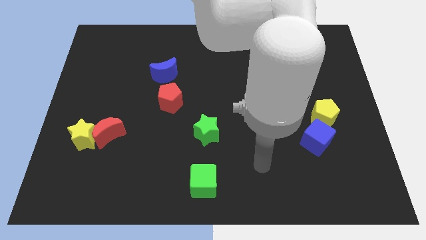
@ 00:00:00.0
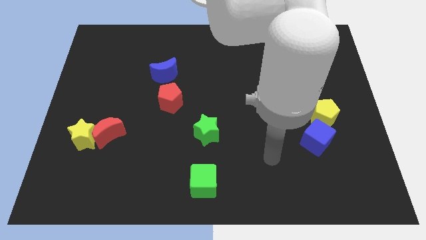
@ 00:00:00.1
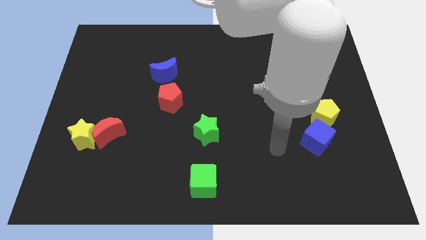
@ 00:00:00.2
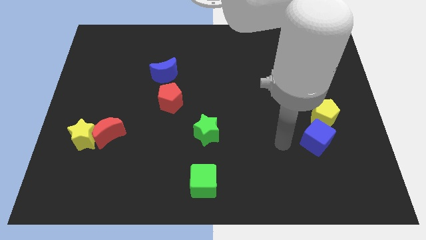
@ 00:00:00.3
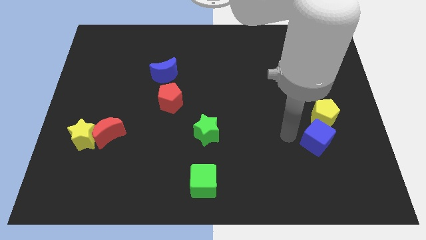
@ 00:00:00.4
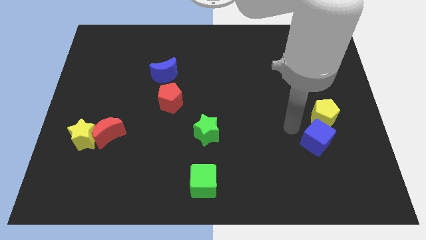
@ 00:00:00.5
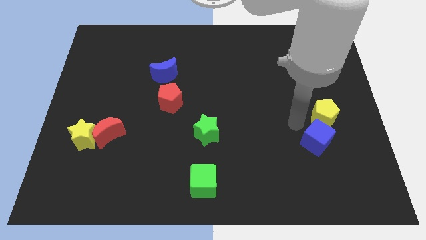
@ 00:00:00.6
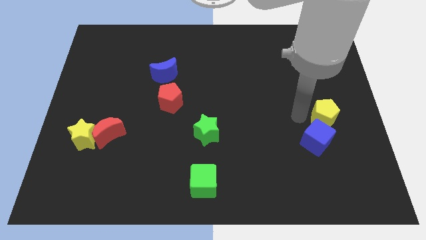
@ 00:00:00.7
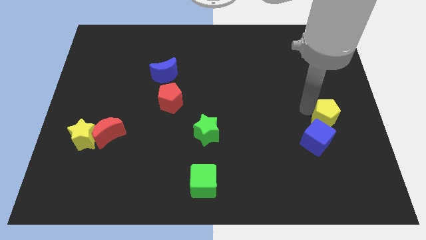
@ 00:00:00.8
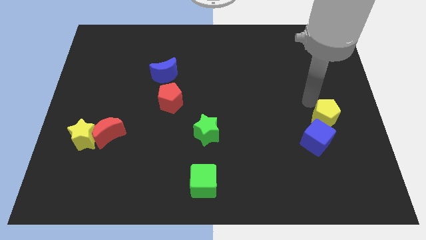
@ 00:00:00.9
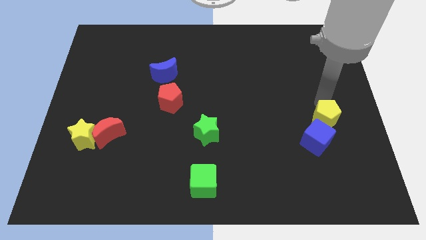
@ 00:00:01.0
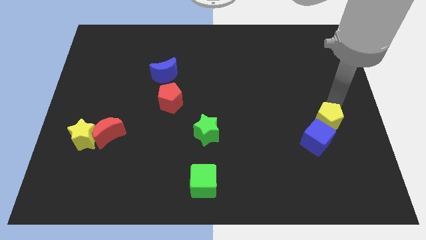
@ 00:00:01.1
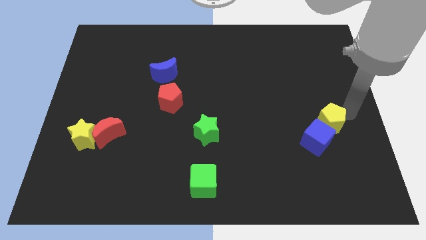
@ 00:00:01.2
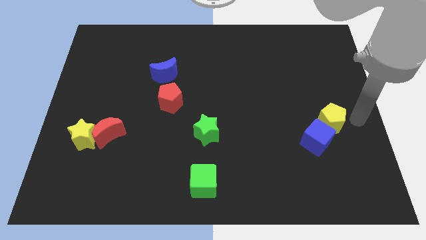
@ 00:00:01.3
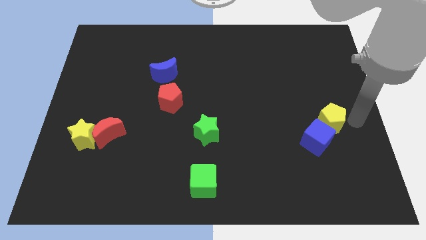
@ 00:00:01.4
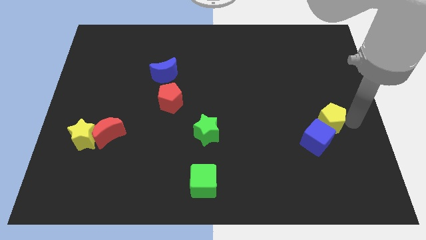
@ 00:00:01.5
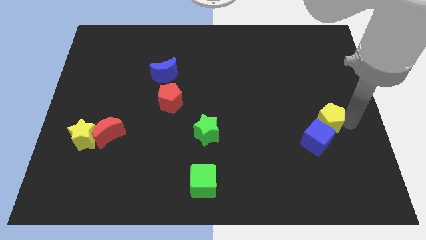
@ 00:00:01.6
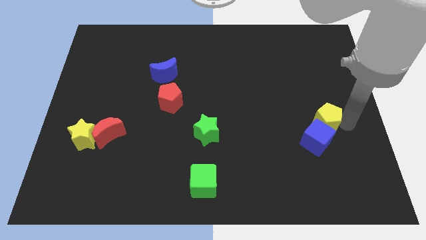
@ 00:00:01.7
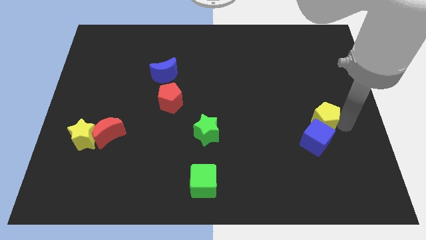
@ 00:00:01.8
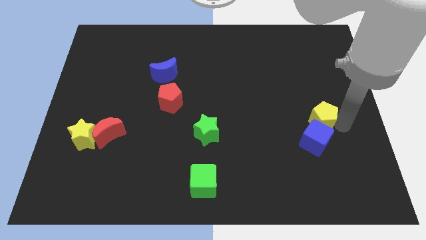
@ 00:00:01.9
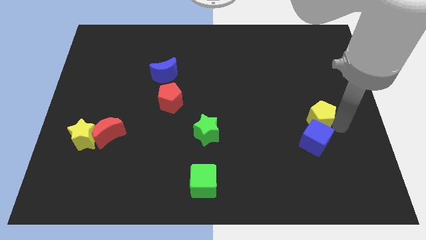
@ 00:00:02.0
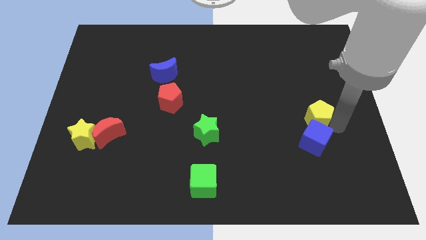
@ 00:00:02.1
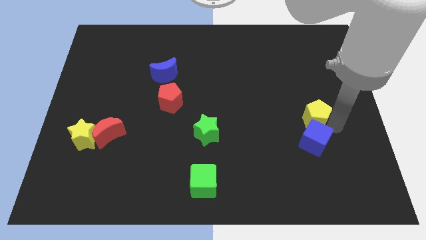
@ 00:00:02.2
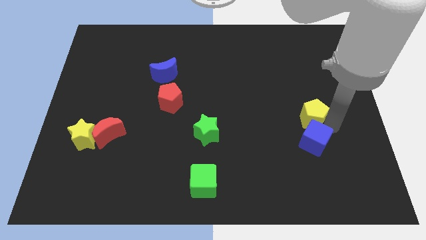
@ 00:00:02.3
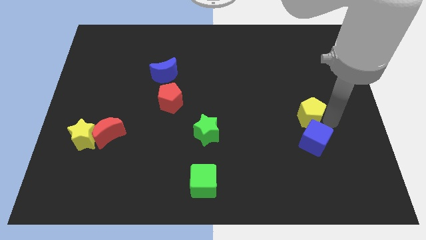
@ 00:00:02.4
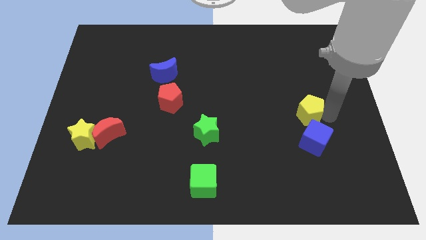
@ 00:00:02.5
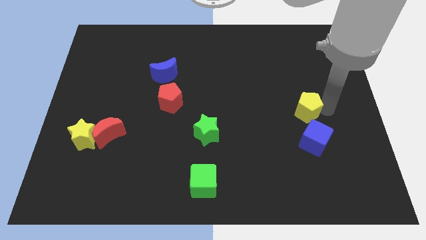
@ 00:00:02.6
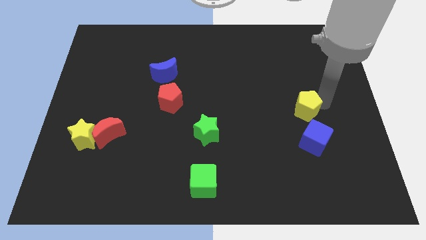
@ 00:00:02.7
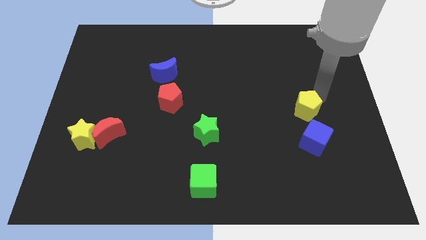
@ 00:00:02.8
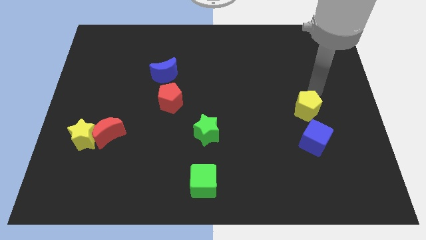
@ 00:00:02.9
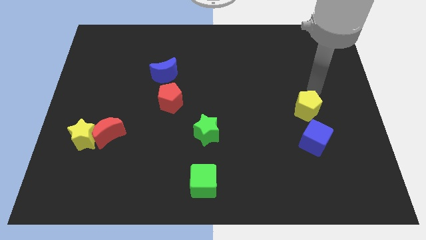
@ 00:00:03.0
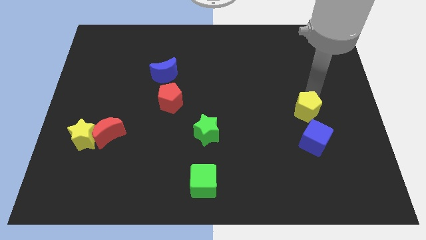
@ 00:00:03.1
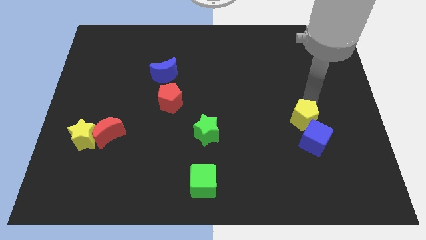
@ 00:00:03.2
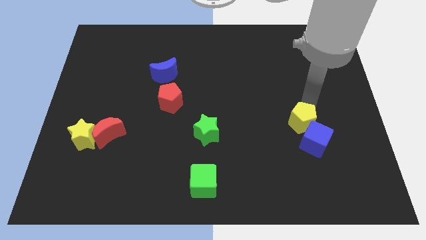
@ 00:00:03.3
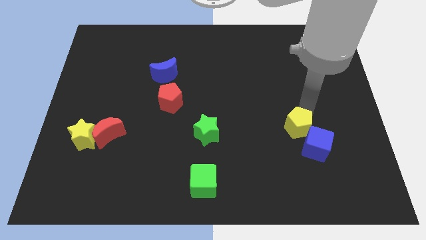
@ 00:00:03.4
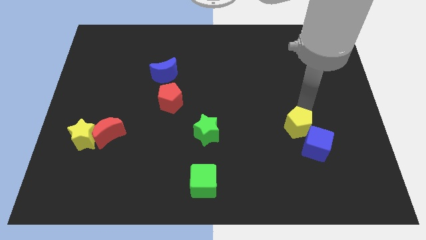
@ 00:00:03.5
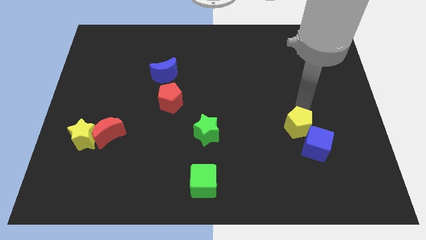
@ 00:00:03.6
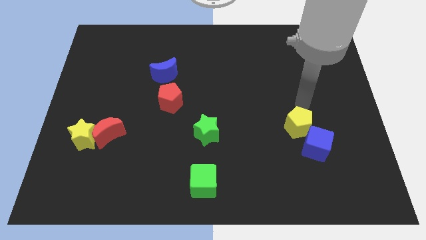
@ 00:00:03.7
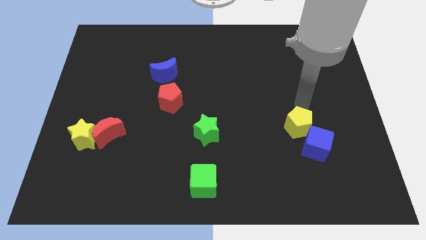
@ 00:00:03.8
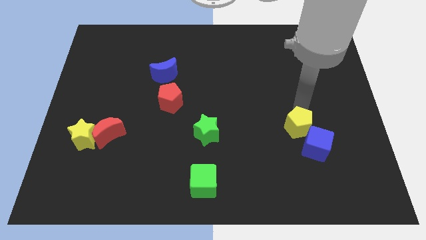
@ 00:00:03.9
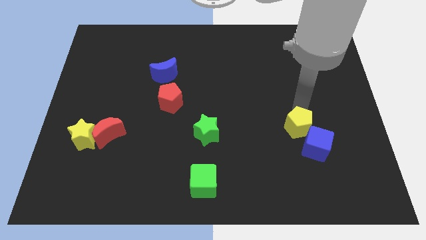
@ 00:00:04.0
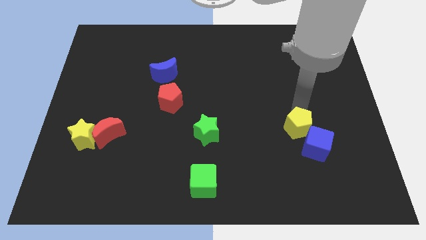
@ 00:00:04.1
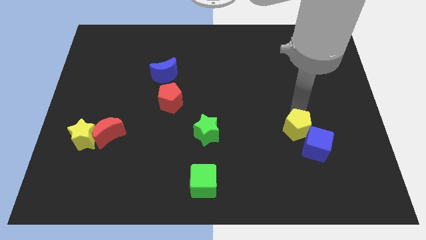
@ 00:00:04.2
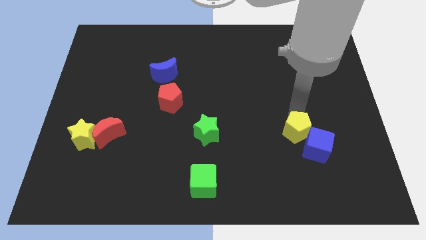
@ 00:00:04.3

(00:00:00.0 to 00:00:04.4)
push the yellow pentagon somewhat downwards and then to the left

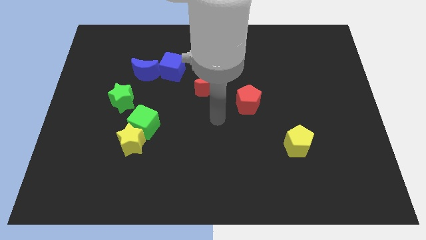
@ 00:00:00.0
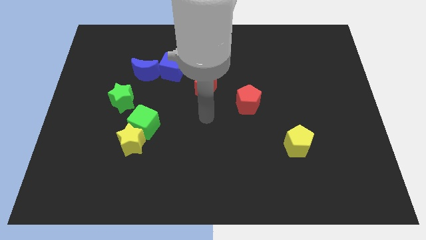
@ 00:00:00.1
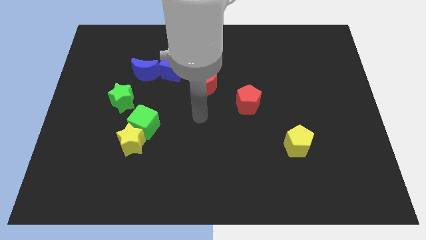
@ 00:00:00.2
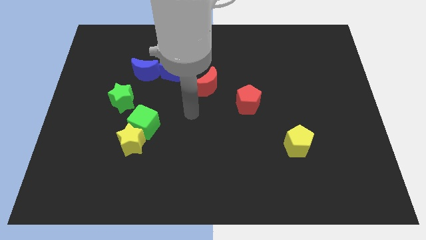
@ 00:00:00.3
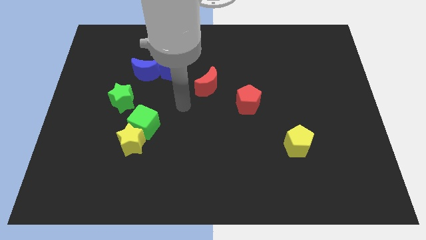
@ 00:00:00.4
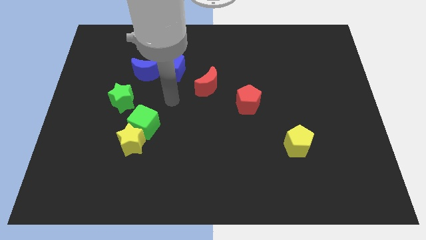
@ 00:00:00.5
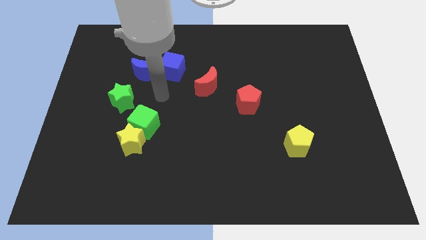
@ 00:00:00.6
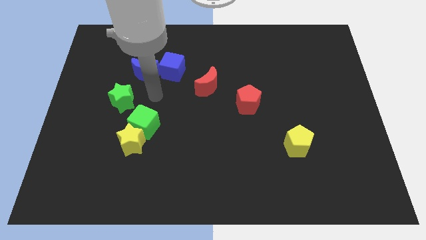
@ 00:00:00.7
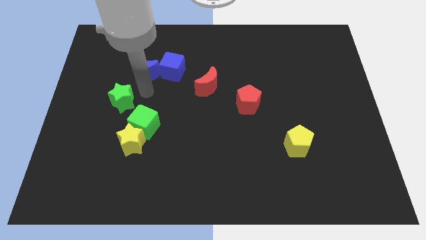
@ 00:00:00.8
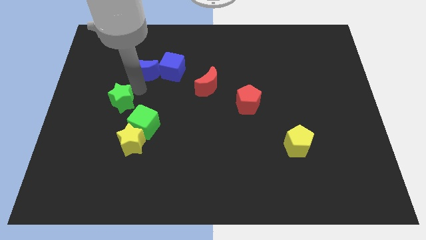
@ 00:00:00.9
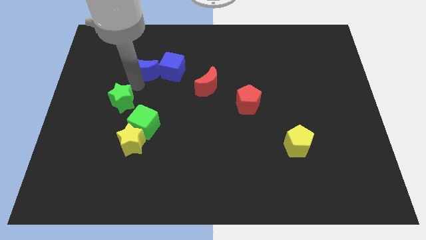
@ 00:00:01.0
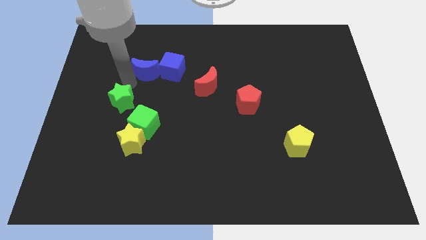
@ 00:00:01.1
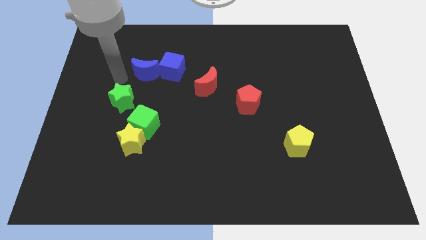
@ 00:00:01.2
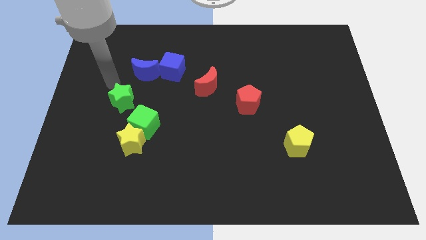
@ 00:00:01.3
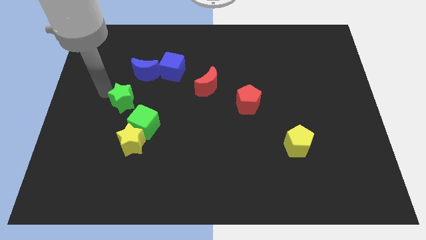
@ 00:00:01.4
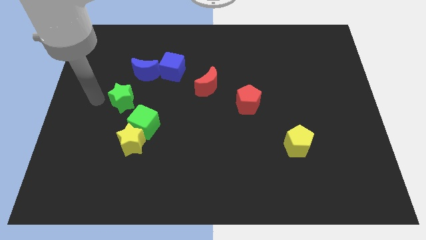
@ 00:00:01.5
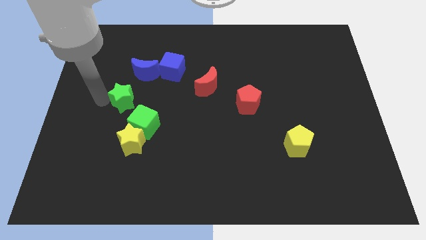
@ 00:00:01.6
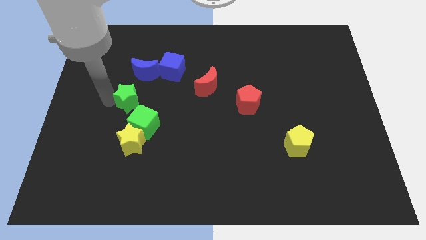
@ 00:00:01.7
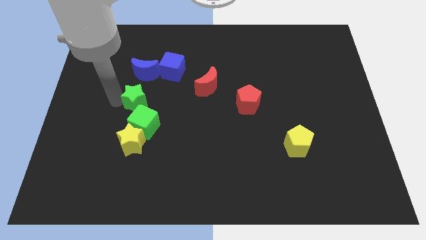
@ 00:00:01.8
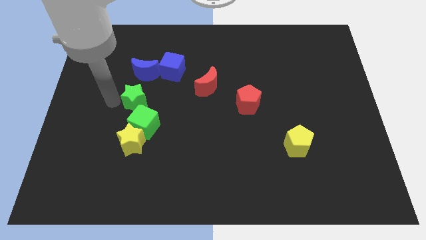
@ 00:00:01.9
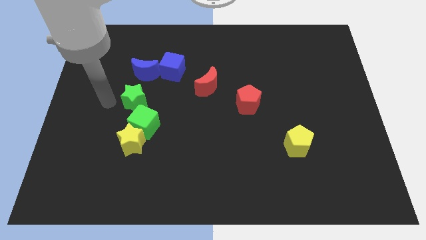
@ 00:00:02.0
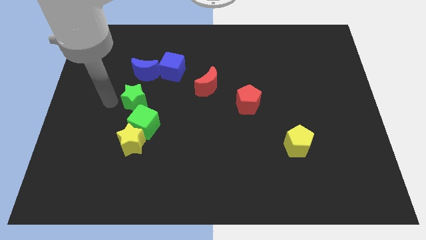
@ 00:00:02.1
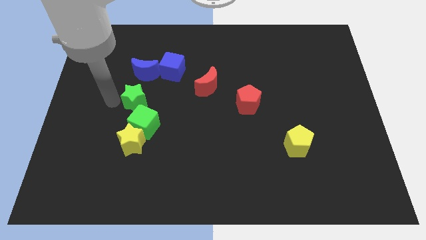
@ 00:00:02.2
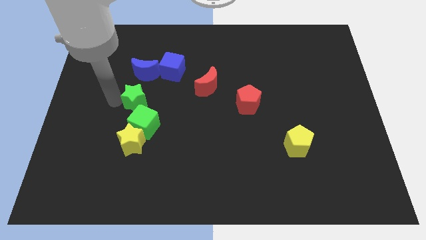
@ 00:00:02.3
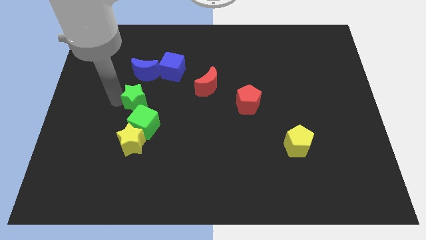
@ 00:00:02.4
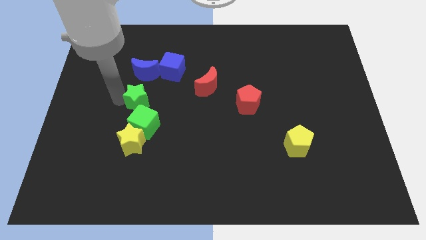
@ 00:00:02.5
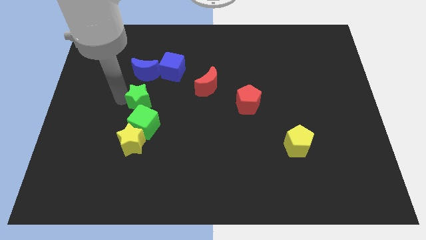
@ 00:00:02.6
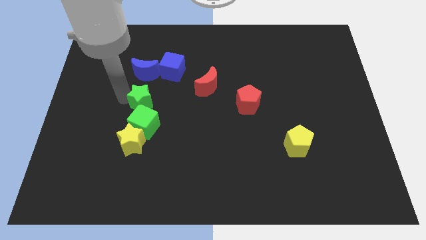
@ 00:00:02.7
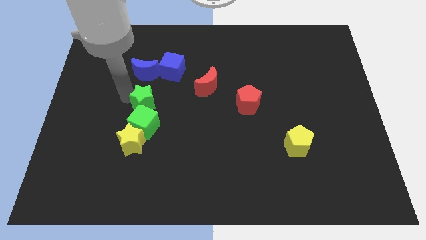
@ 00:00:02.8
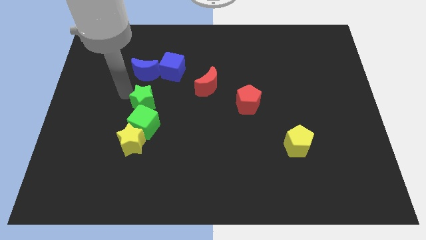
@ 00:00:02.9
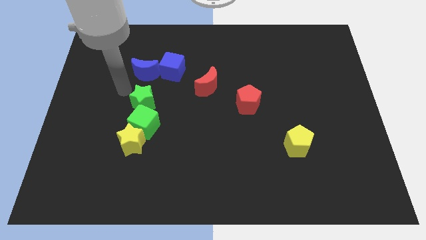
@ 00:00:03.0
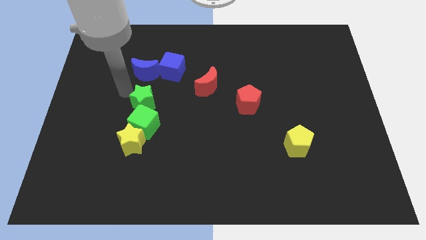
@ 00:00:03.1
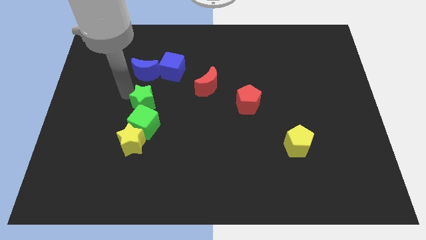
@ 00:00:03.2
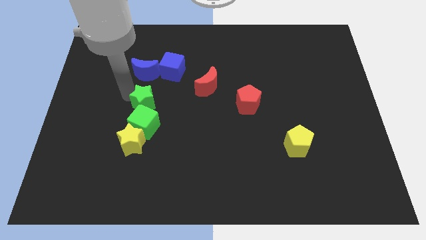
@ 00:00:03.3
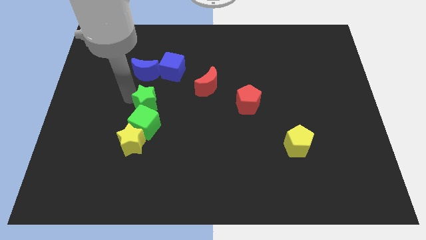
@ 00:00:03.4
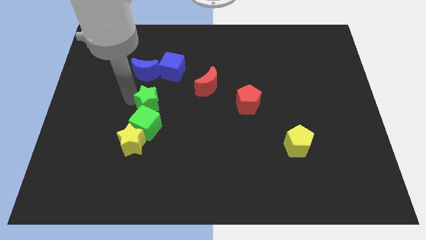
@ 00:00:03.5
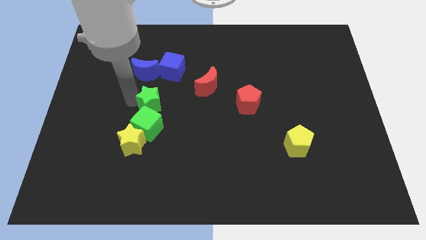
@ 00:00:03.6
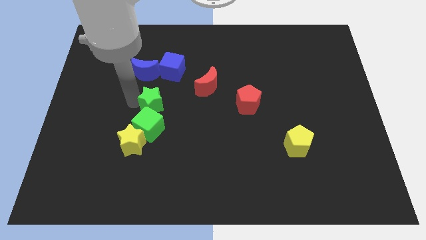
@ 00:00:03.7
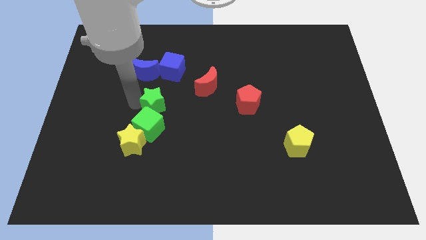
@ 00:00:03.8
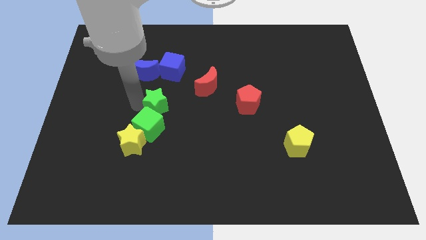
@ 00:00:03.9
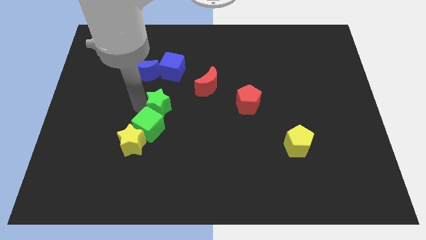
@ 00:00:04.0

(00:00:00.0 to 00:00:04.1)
slightly move the green star down and to the right diagonally
